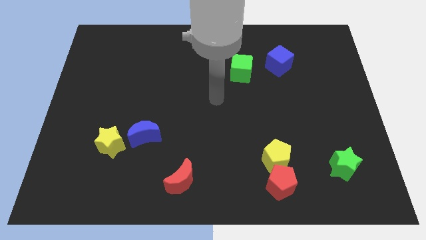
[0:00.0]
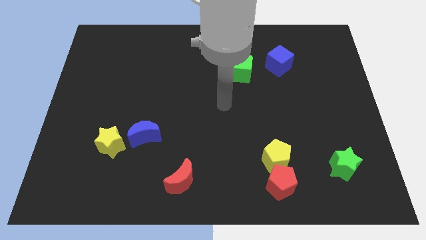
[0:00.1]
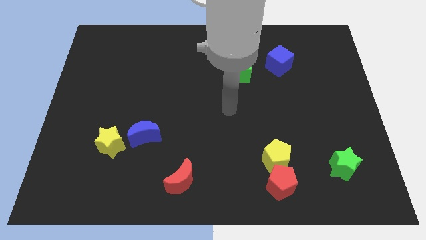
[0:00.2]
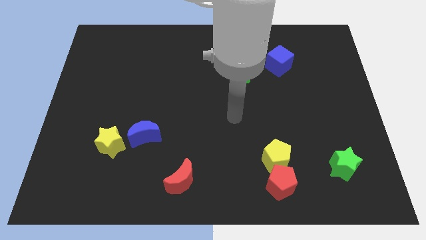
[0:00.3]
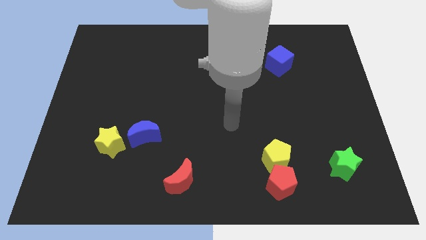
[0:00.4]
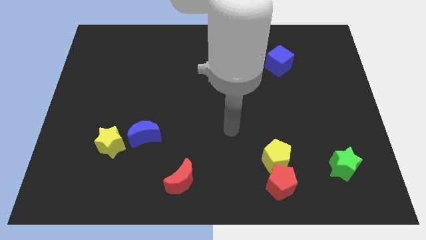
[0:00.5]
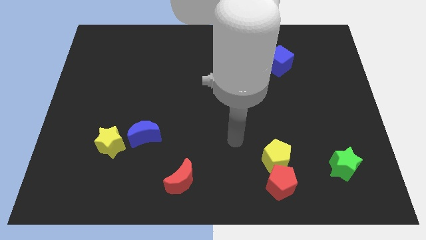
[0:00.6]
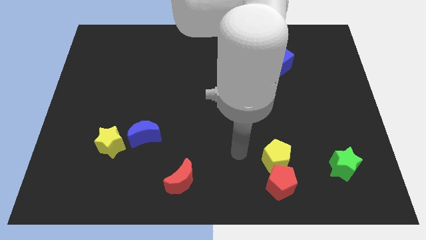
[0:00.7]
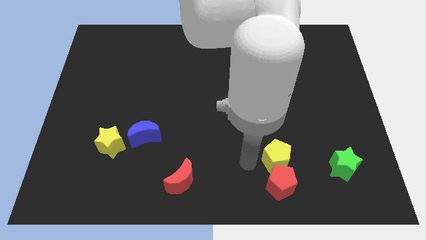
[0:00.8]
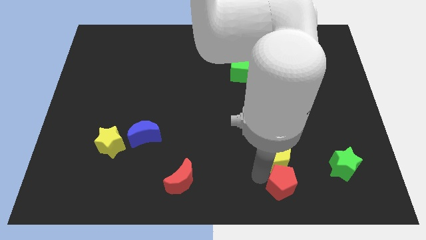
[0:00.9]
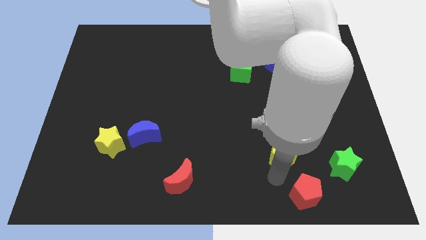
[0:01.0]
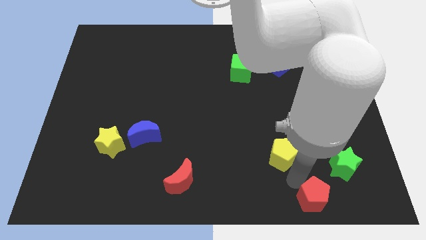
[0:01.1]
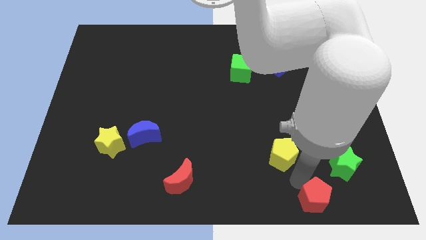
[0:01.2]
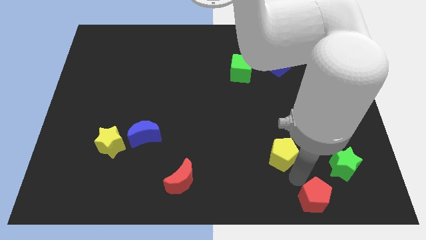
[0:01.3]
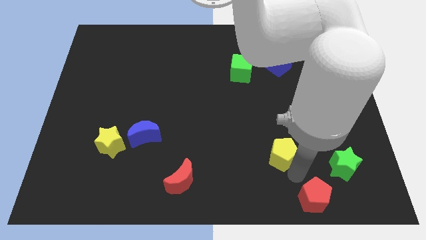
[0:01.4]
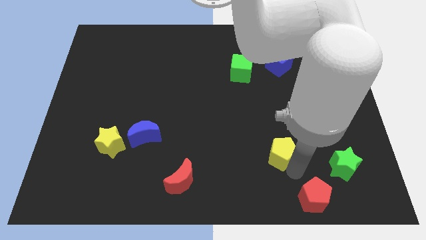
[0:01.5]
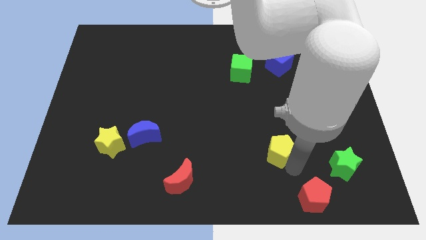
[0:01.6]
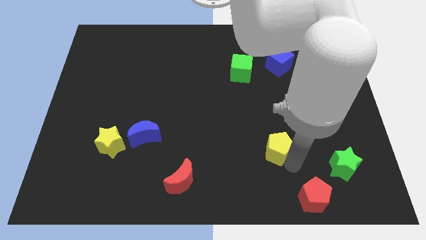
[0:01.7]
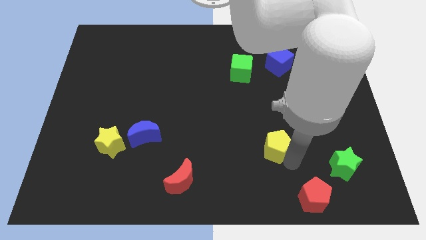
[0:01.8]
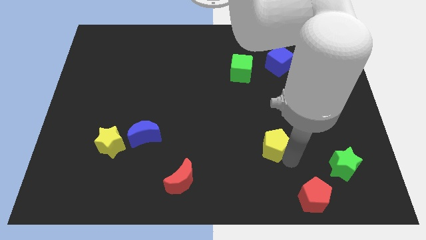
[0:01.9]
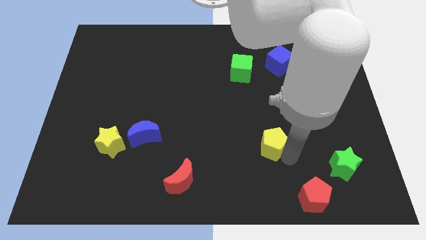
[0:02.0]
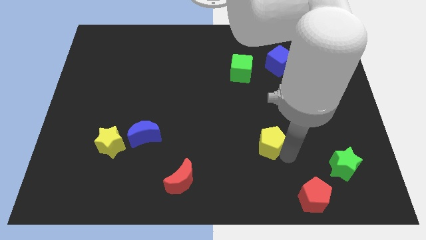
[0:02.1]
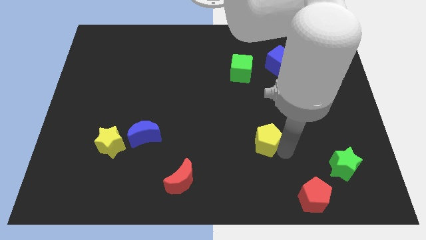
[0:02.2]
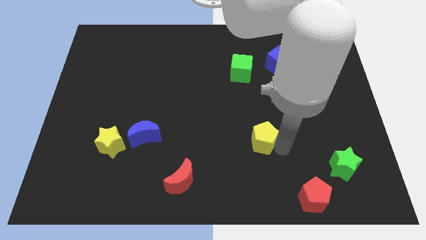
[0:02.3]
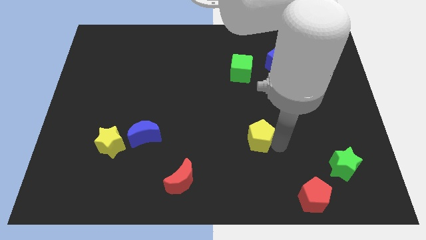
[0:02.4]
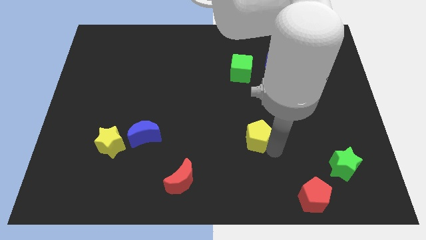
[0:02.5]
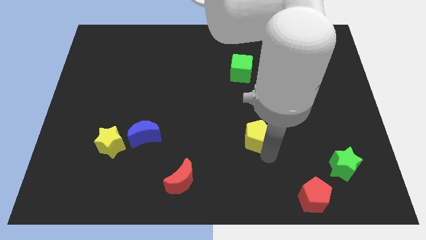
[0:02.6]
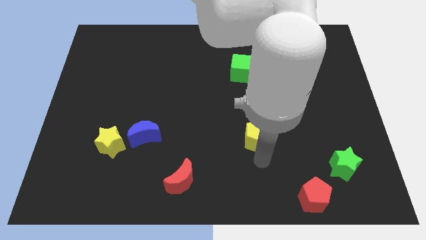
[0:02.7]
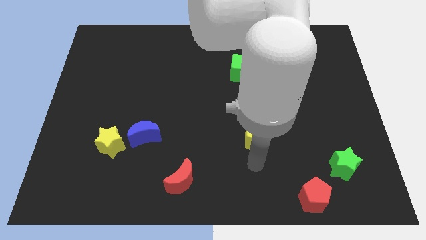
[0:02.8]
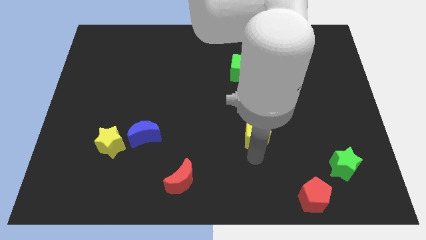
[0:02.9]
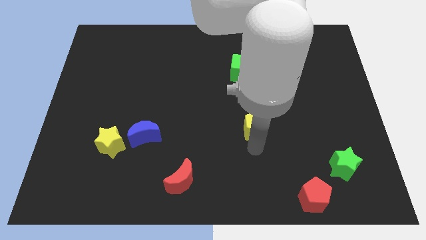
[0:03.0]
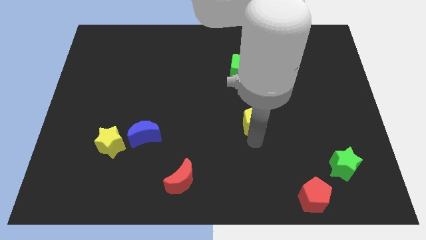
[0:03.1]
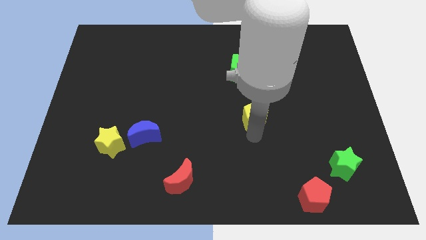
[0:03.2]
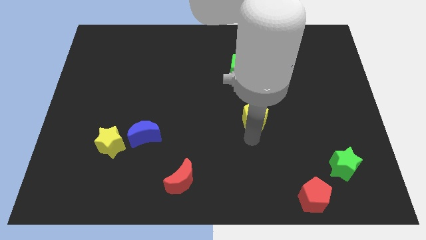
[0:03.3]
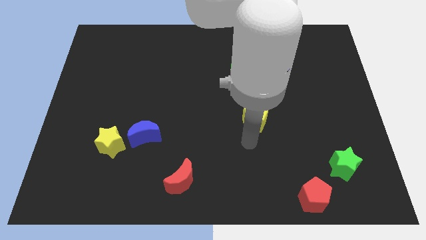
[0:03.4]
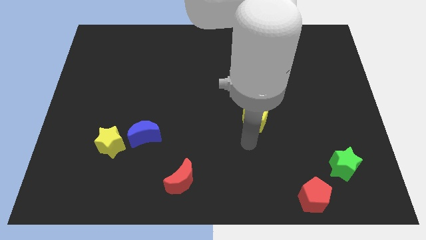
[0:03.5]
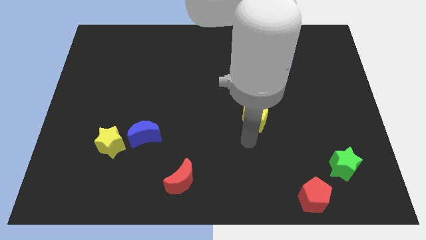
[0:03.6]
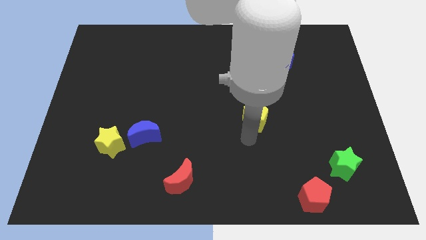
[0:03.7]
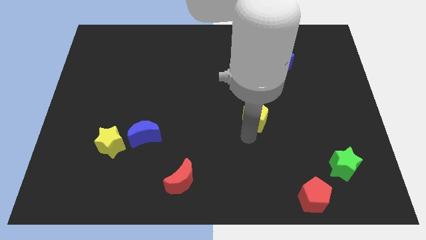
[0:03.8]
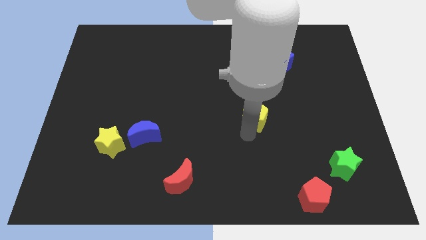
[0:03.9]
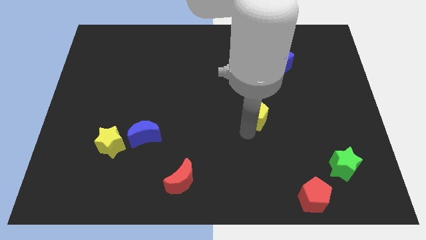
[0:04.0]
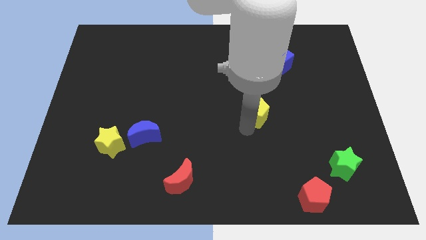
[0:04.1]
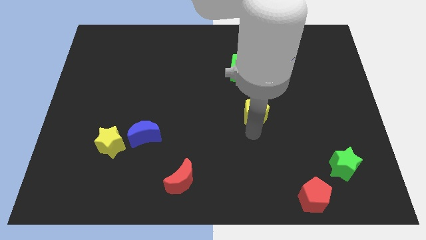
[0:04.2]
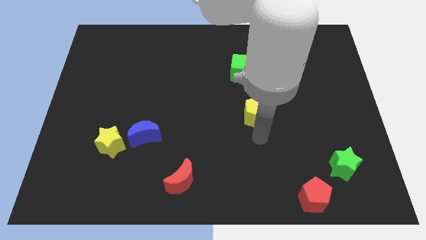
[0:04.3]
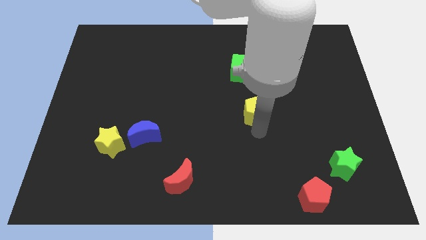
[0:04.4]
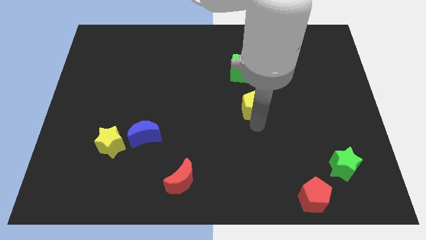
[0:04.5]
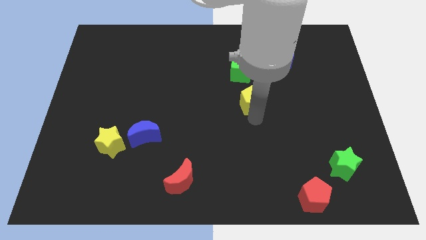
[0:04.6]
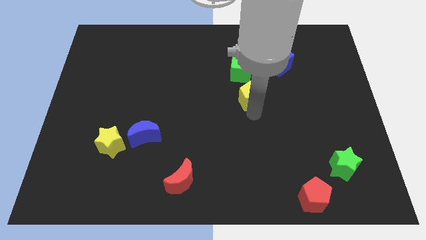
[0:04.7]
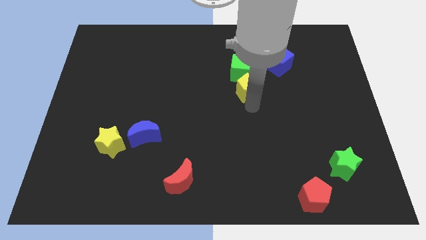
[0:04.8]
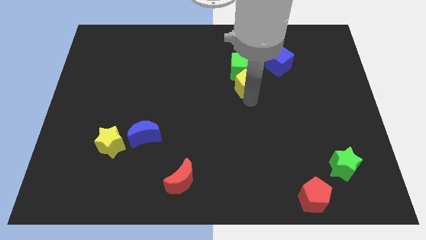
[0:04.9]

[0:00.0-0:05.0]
push the yellow pentagon to the green cube

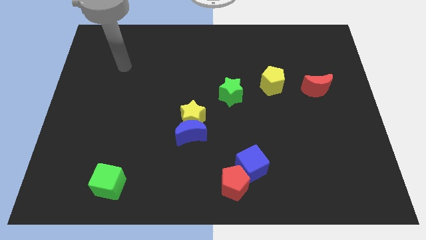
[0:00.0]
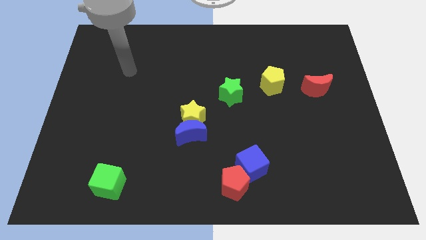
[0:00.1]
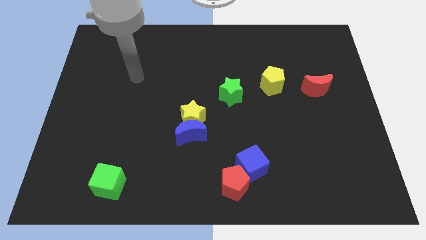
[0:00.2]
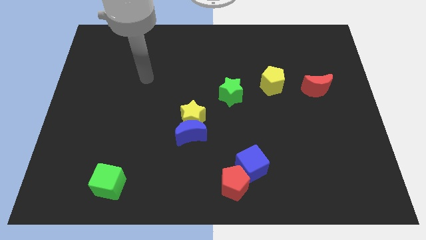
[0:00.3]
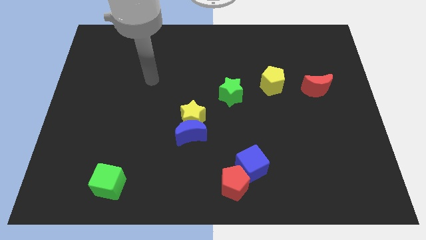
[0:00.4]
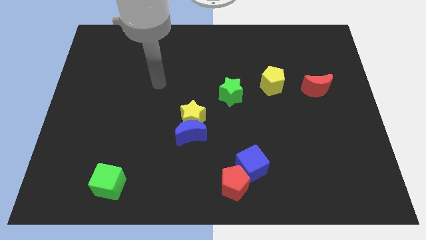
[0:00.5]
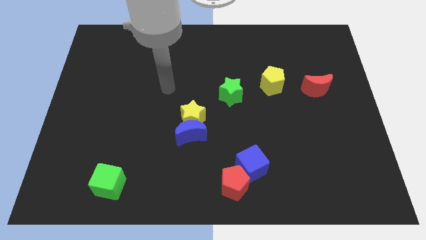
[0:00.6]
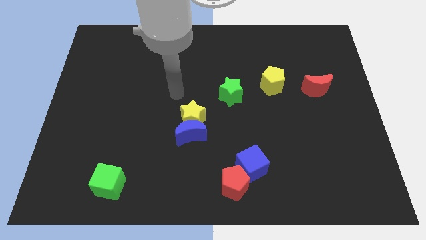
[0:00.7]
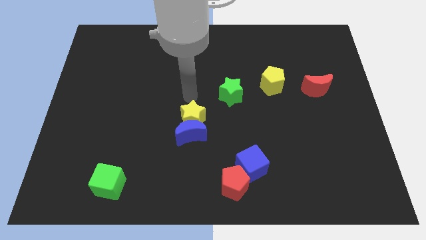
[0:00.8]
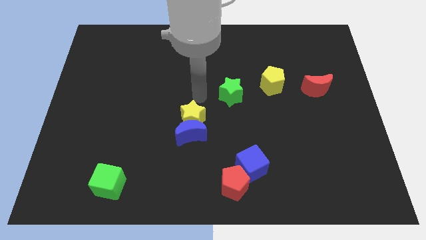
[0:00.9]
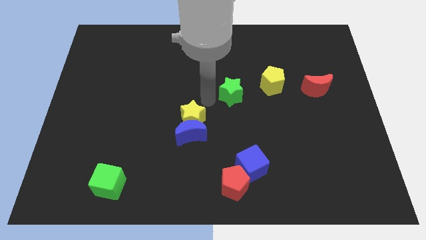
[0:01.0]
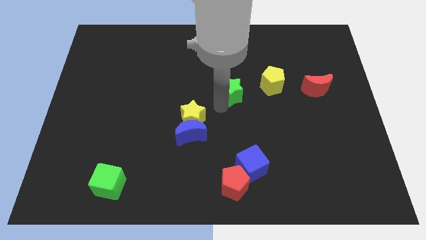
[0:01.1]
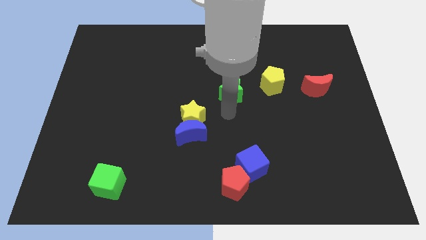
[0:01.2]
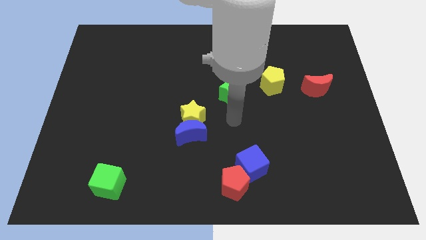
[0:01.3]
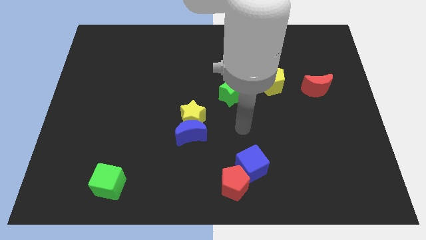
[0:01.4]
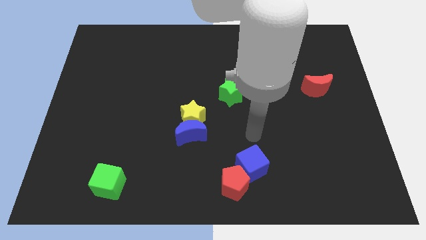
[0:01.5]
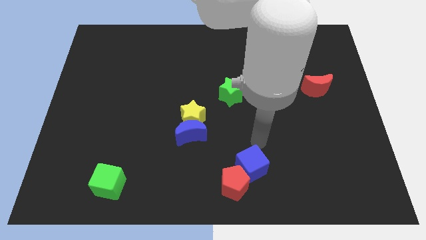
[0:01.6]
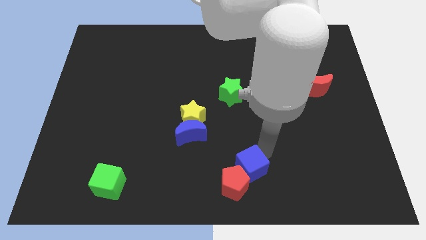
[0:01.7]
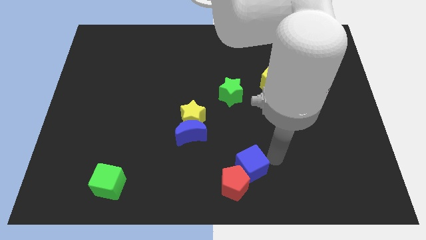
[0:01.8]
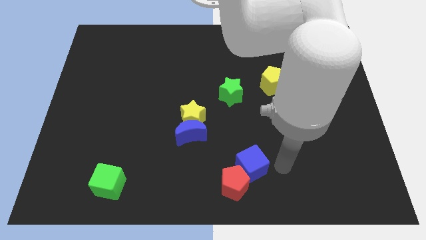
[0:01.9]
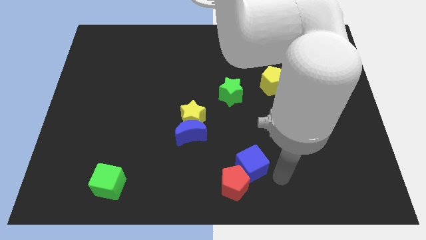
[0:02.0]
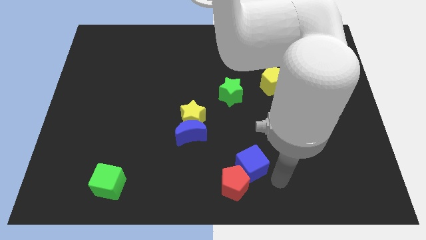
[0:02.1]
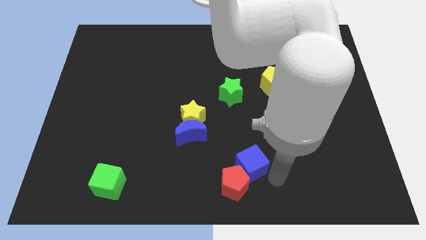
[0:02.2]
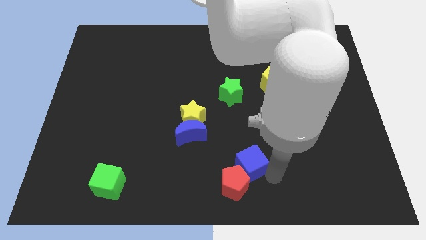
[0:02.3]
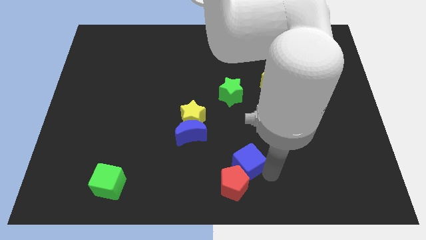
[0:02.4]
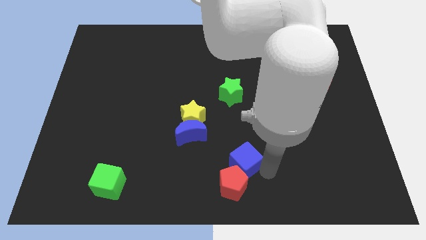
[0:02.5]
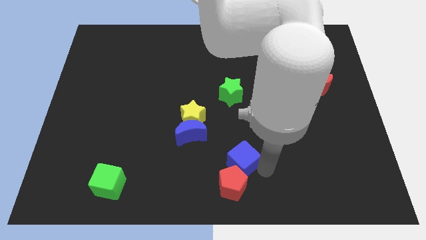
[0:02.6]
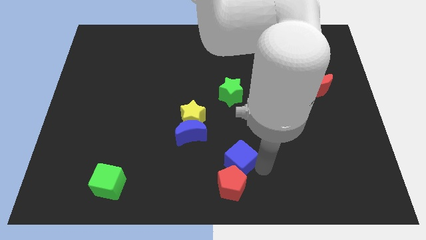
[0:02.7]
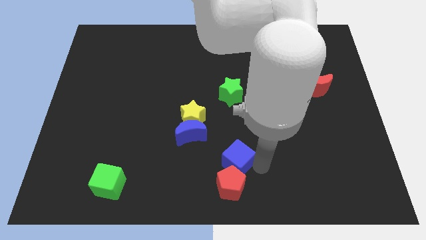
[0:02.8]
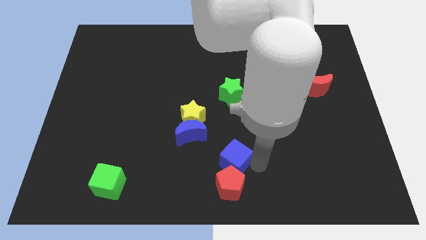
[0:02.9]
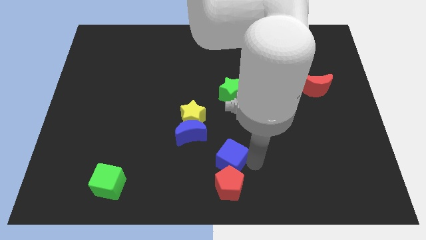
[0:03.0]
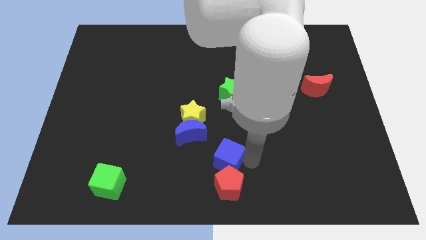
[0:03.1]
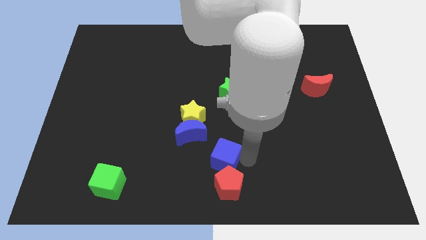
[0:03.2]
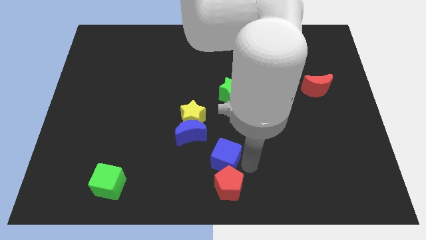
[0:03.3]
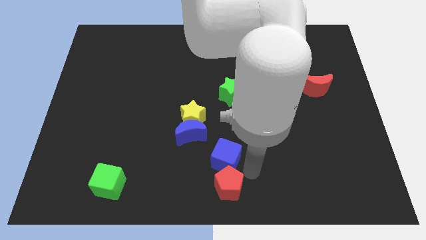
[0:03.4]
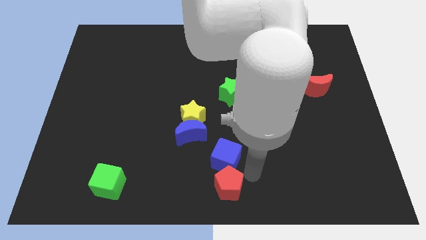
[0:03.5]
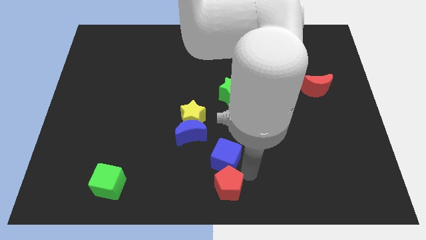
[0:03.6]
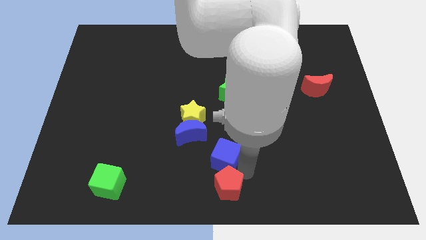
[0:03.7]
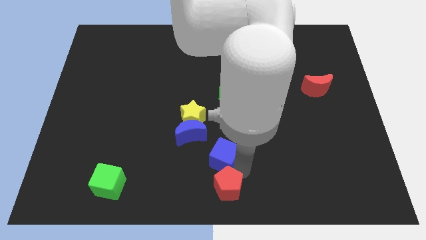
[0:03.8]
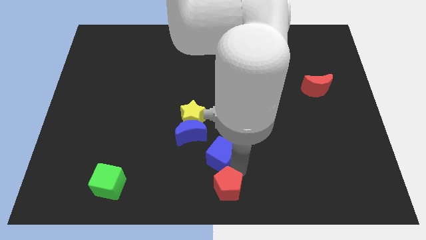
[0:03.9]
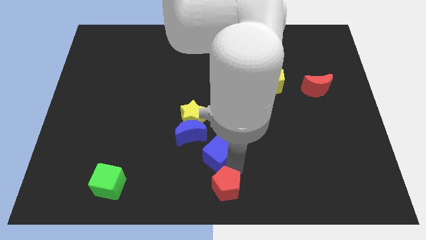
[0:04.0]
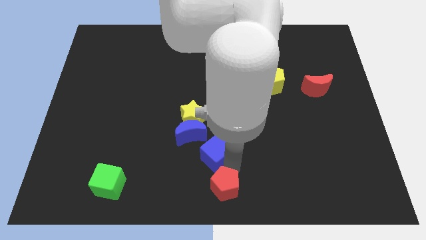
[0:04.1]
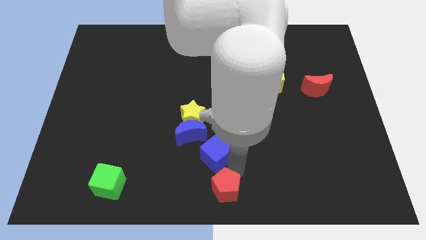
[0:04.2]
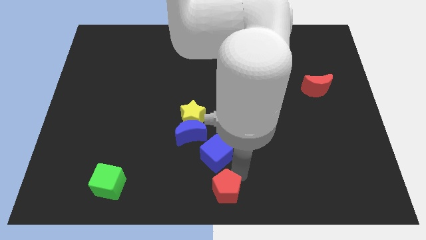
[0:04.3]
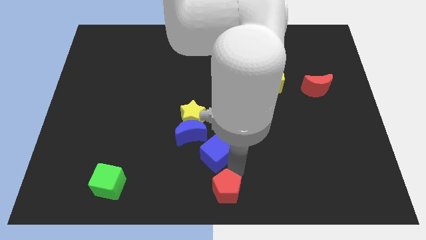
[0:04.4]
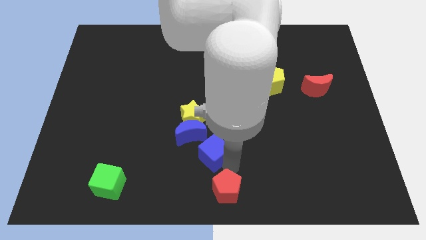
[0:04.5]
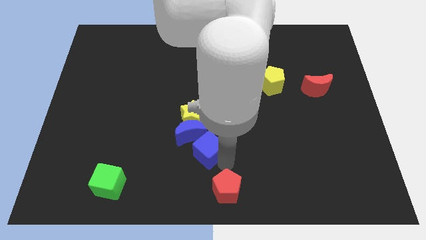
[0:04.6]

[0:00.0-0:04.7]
move the blue cube next to the blue moon
